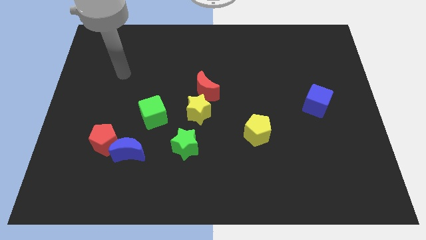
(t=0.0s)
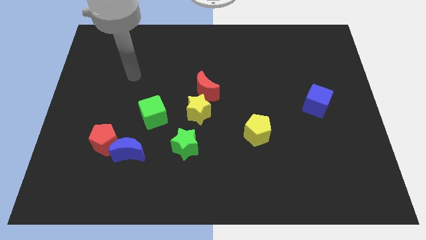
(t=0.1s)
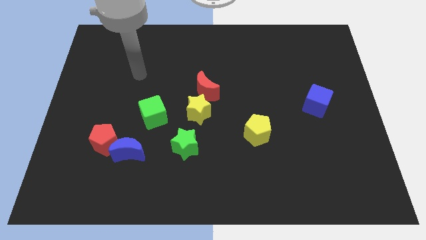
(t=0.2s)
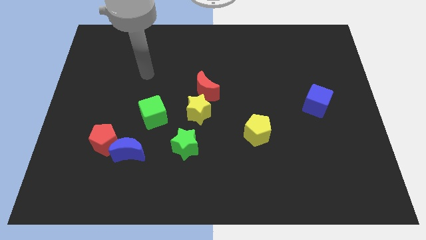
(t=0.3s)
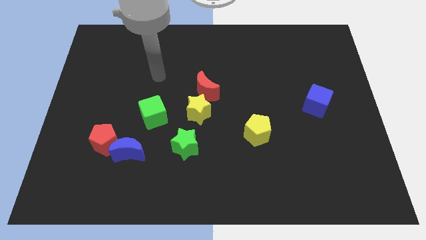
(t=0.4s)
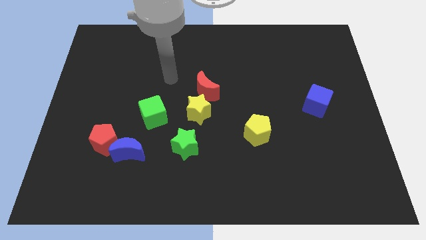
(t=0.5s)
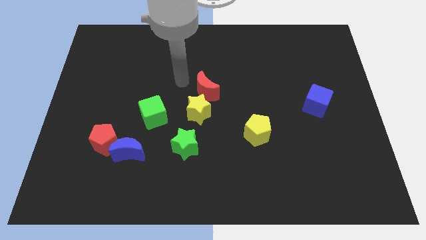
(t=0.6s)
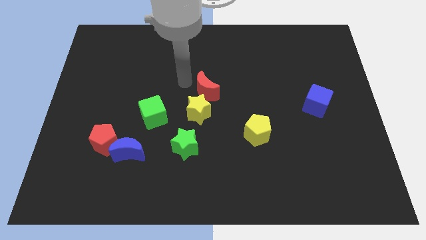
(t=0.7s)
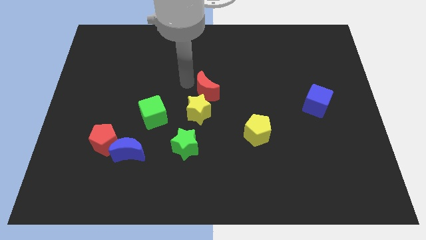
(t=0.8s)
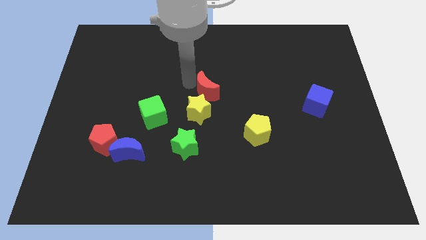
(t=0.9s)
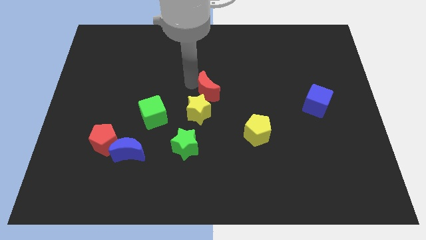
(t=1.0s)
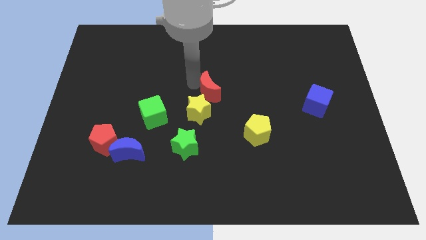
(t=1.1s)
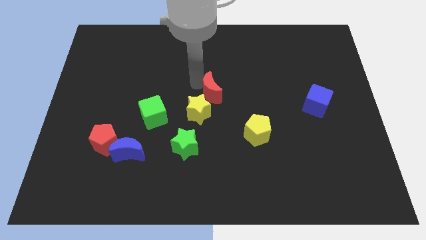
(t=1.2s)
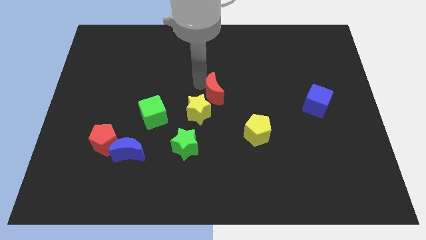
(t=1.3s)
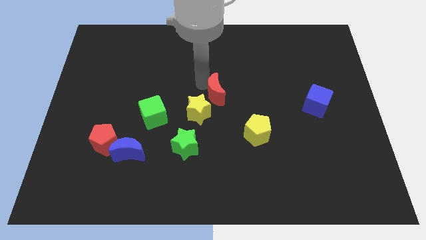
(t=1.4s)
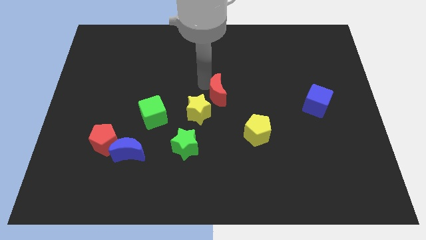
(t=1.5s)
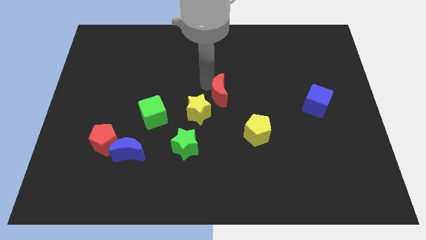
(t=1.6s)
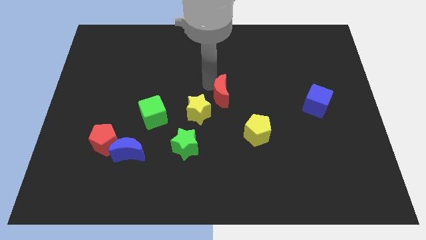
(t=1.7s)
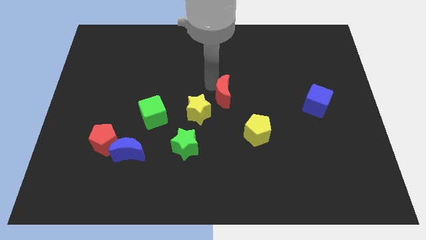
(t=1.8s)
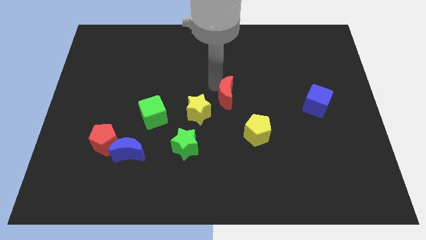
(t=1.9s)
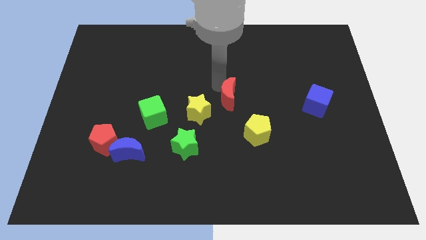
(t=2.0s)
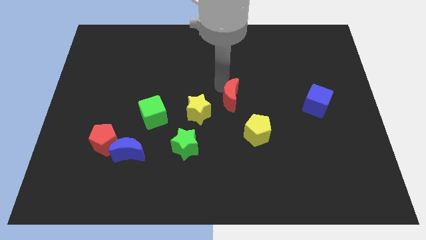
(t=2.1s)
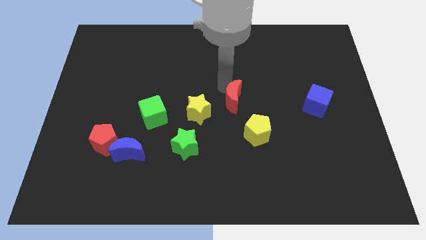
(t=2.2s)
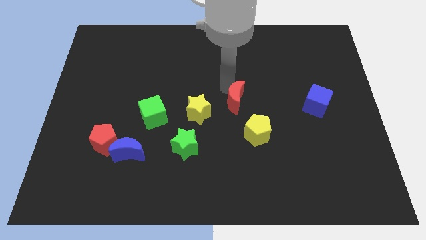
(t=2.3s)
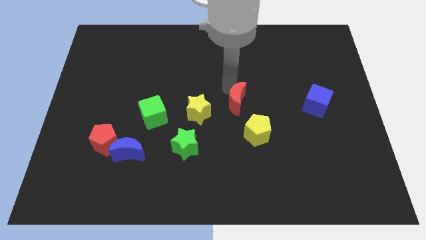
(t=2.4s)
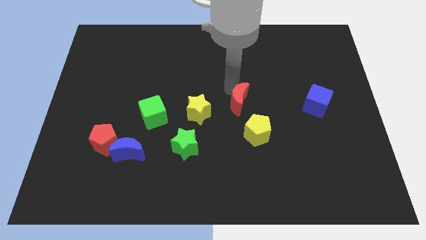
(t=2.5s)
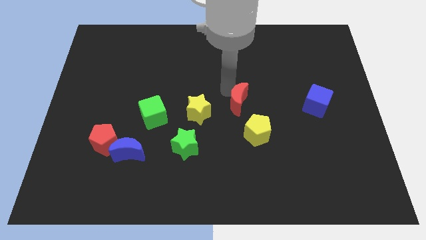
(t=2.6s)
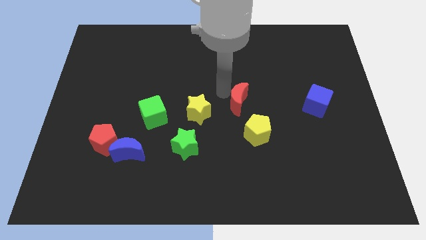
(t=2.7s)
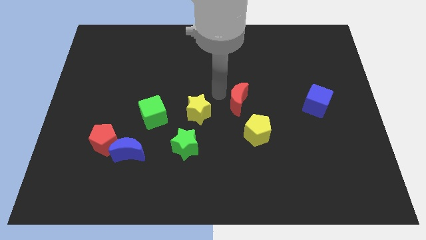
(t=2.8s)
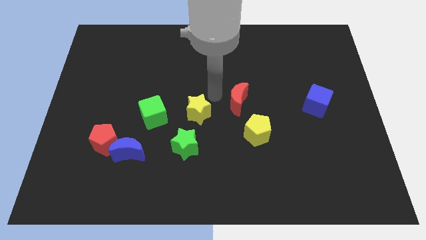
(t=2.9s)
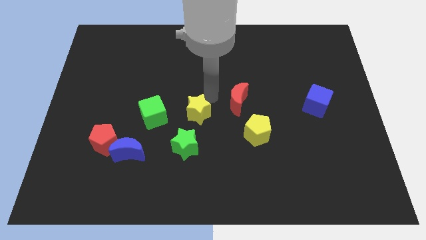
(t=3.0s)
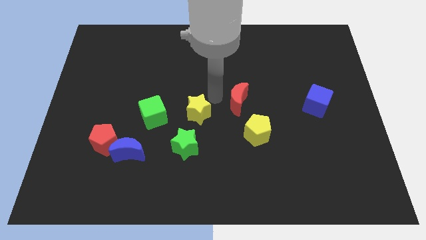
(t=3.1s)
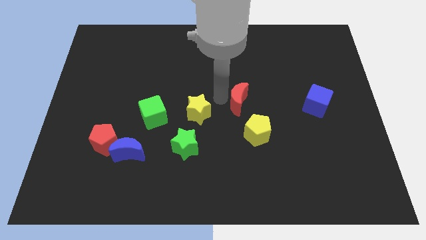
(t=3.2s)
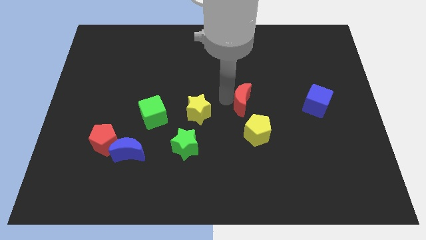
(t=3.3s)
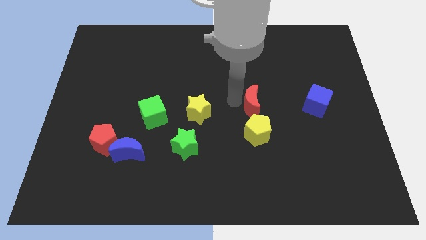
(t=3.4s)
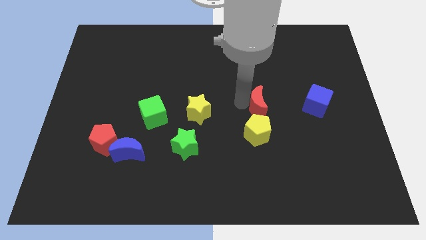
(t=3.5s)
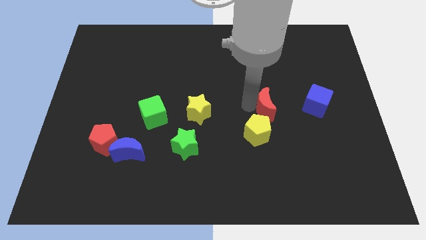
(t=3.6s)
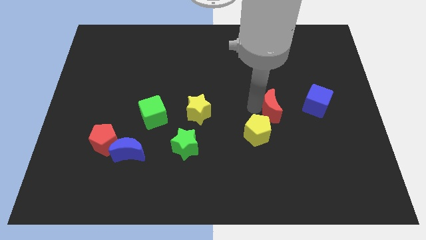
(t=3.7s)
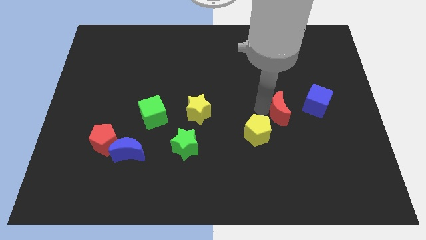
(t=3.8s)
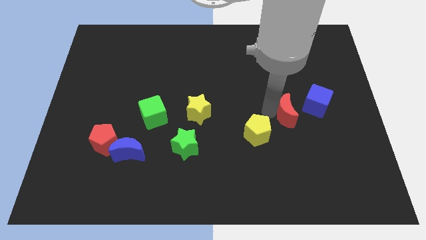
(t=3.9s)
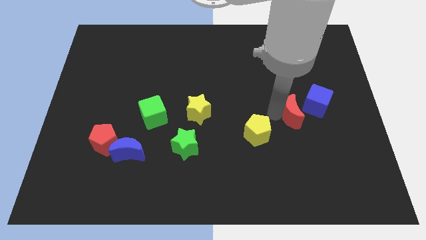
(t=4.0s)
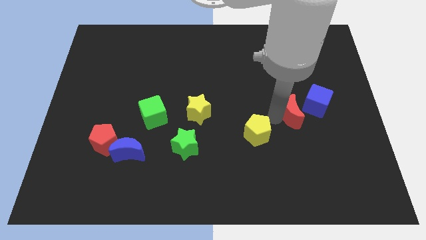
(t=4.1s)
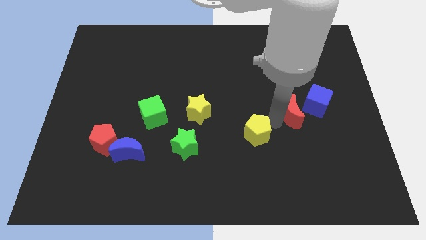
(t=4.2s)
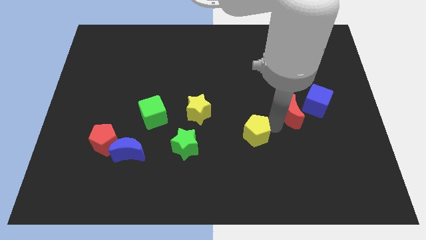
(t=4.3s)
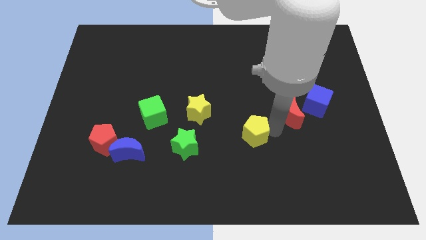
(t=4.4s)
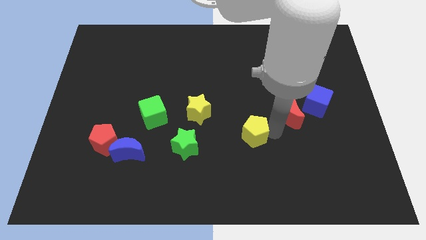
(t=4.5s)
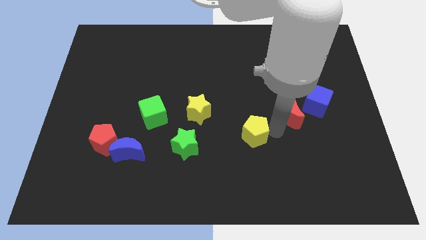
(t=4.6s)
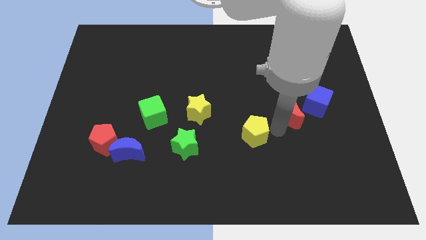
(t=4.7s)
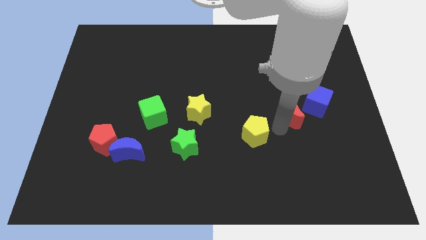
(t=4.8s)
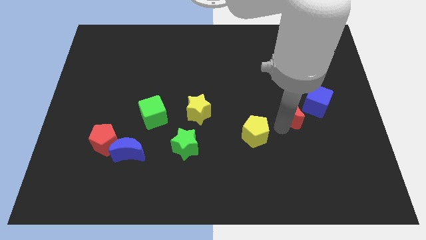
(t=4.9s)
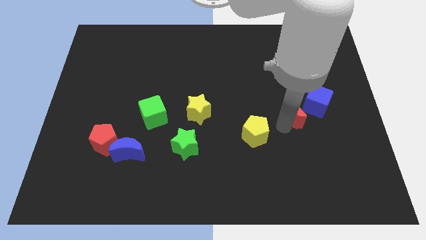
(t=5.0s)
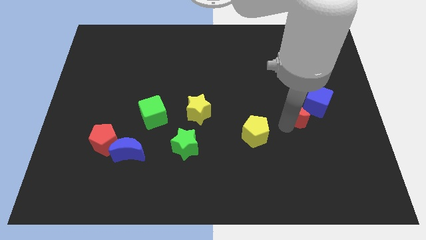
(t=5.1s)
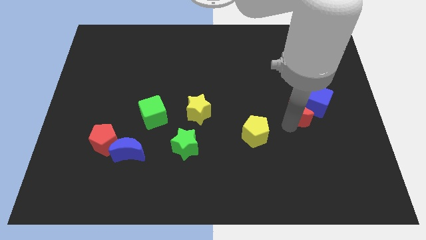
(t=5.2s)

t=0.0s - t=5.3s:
move the red moon next to the blue cube

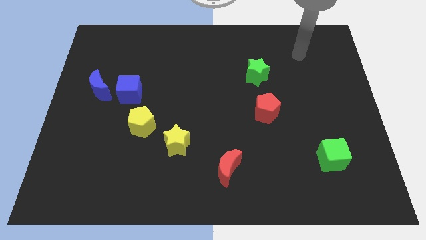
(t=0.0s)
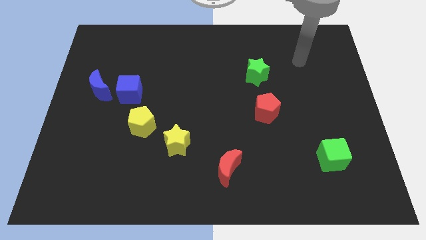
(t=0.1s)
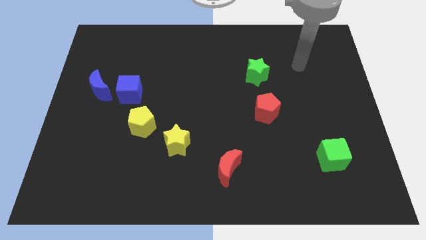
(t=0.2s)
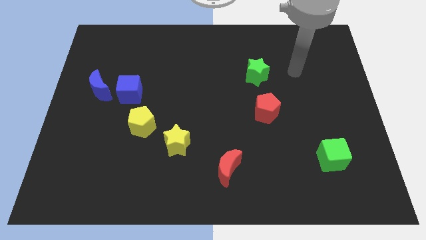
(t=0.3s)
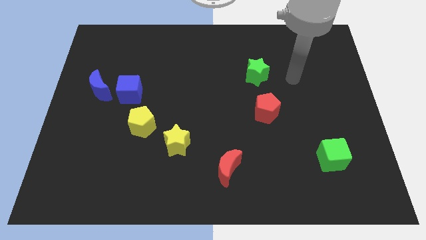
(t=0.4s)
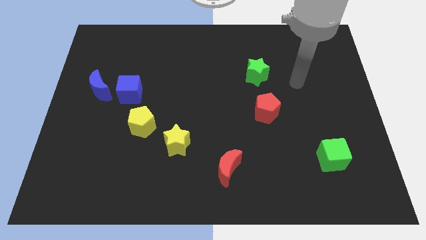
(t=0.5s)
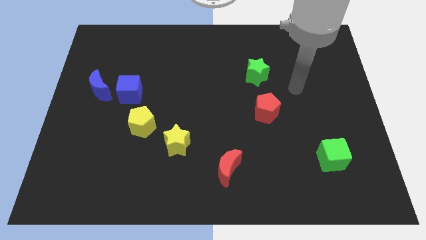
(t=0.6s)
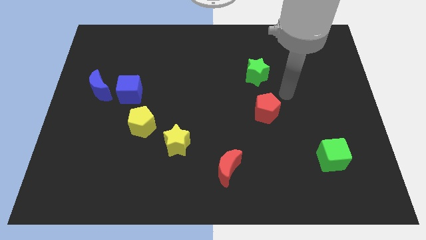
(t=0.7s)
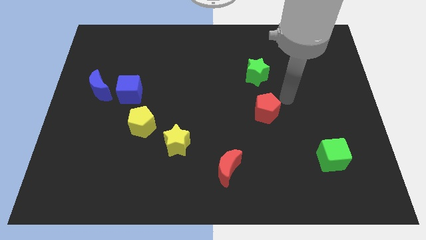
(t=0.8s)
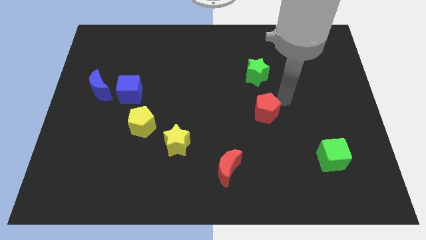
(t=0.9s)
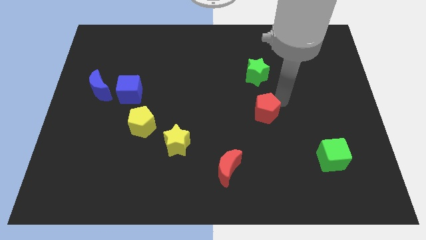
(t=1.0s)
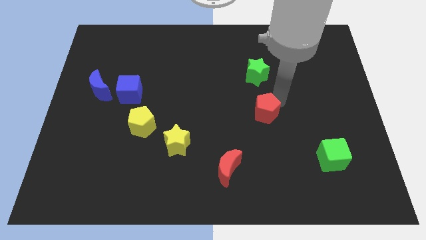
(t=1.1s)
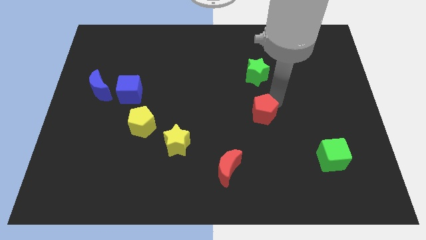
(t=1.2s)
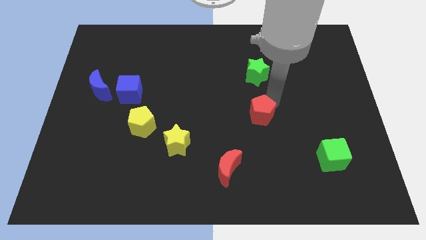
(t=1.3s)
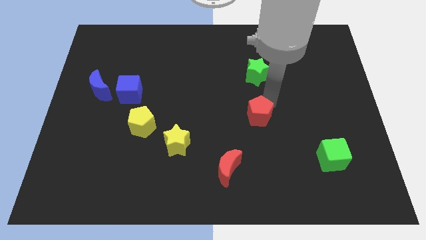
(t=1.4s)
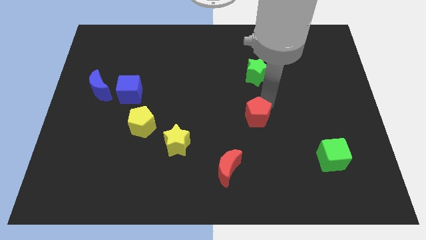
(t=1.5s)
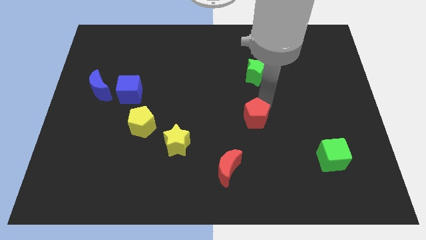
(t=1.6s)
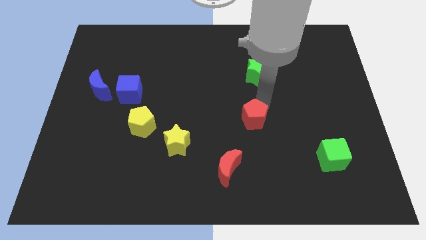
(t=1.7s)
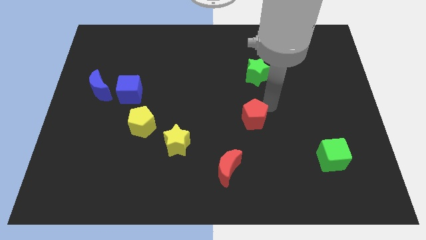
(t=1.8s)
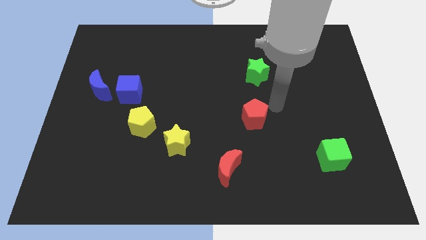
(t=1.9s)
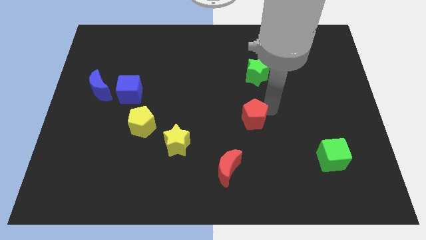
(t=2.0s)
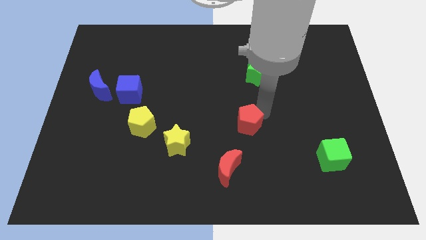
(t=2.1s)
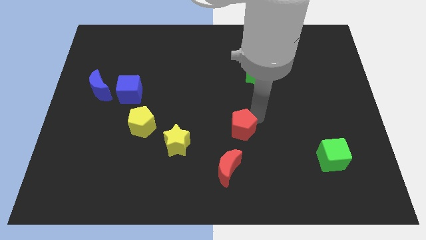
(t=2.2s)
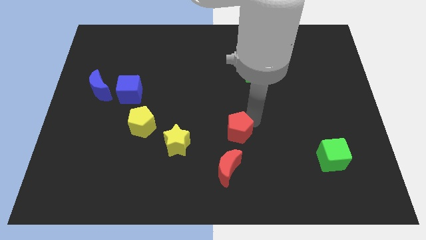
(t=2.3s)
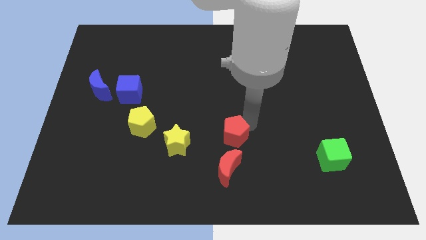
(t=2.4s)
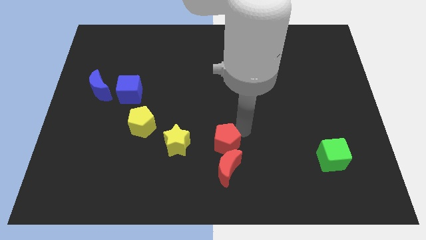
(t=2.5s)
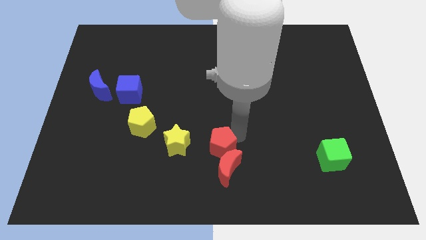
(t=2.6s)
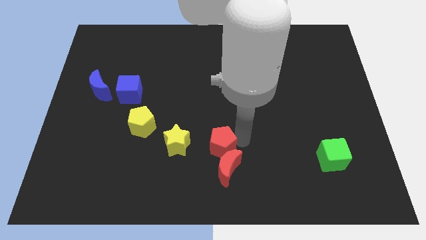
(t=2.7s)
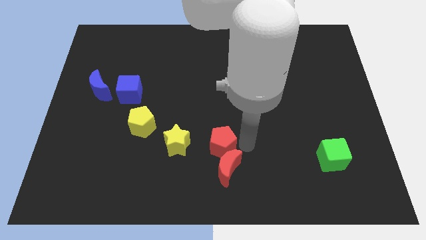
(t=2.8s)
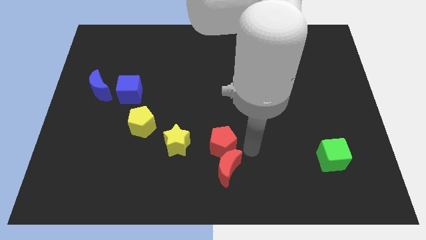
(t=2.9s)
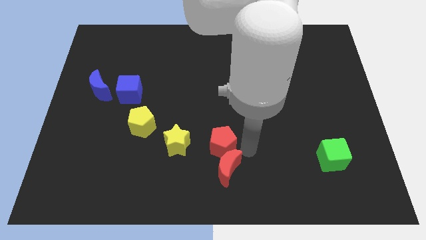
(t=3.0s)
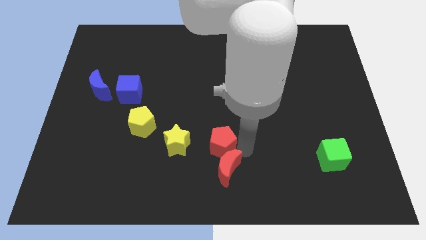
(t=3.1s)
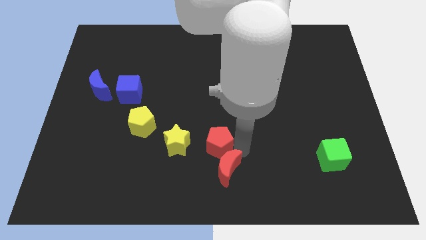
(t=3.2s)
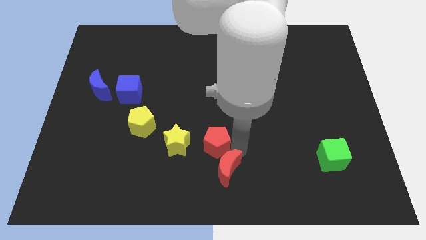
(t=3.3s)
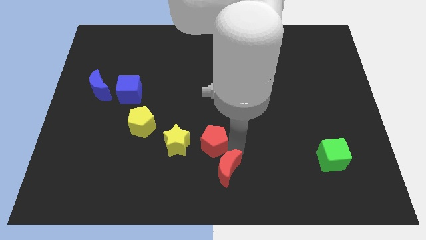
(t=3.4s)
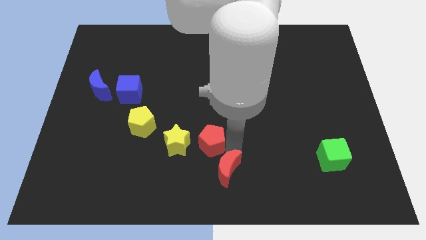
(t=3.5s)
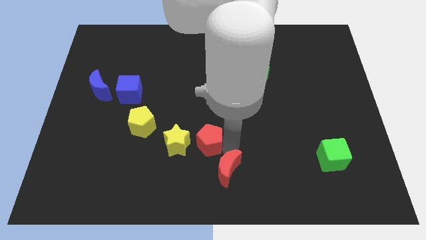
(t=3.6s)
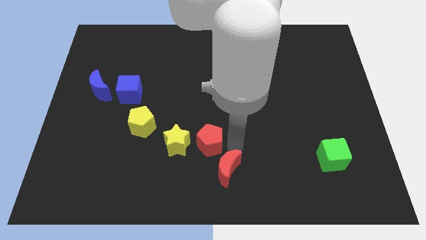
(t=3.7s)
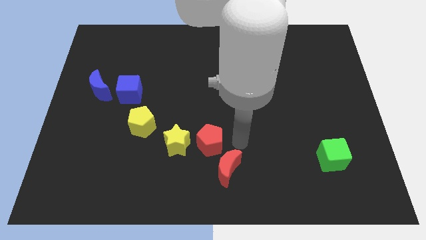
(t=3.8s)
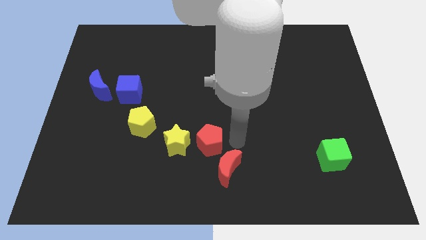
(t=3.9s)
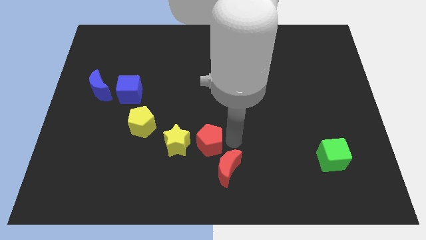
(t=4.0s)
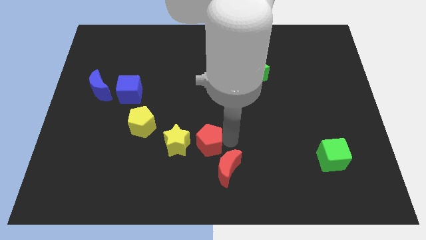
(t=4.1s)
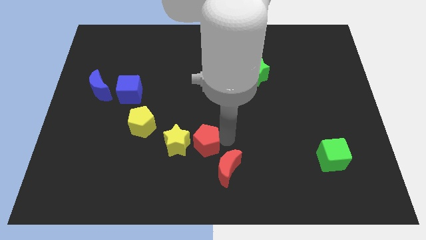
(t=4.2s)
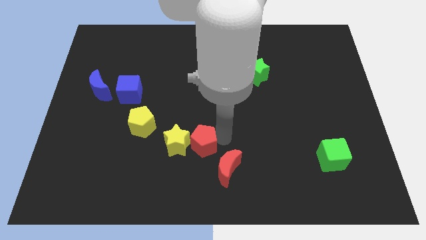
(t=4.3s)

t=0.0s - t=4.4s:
push the red pentagon next to the yellow star
